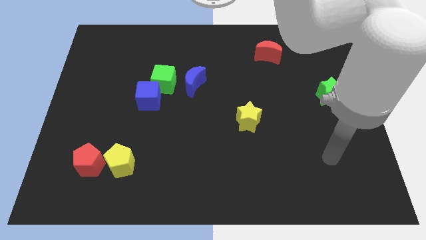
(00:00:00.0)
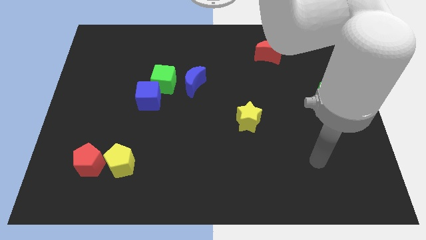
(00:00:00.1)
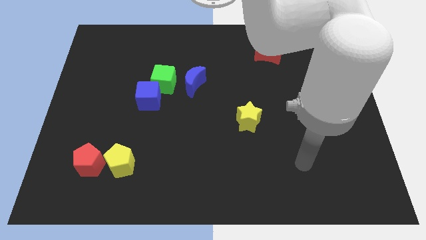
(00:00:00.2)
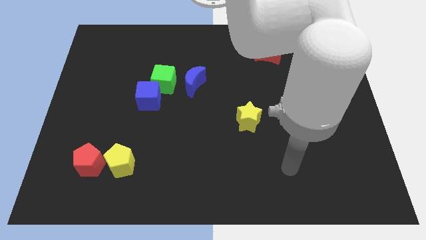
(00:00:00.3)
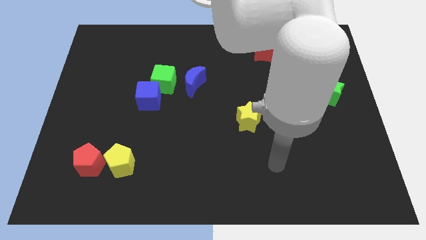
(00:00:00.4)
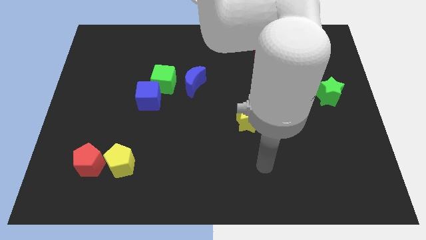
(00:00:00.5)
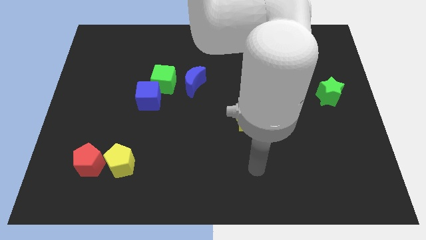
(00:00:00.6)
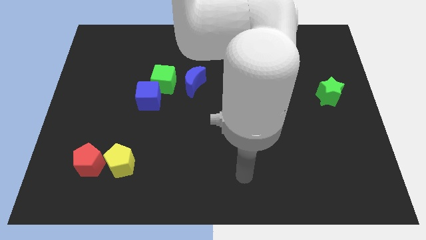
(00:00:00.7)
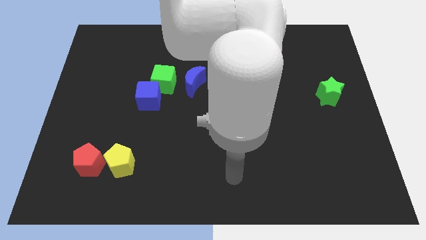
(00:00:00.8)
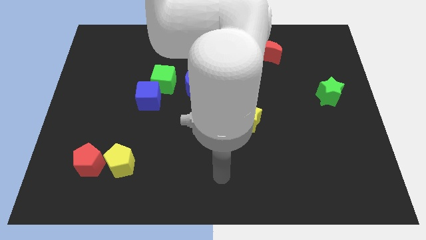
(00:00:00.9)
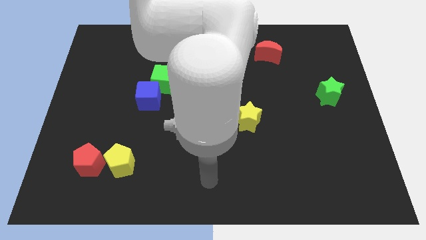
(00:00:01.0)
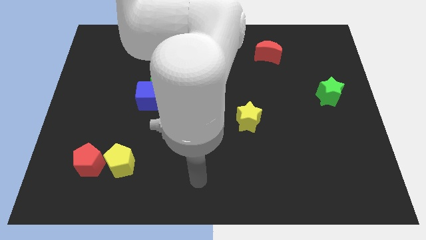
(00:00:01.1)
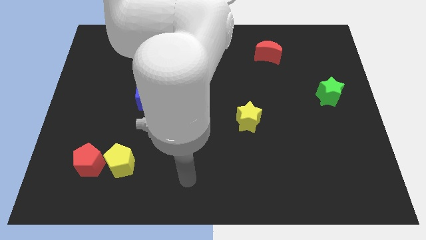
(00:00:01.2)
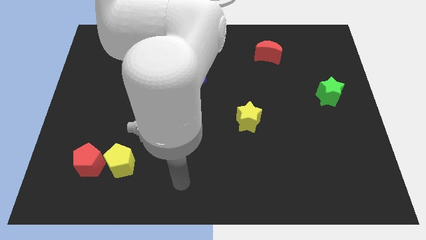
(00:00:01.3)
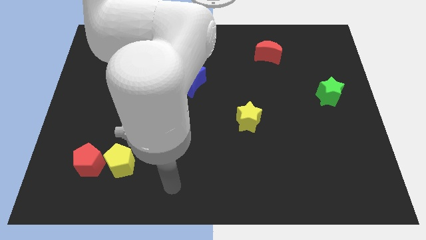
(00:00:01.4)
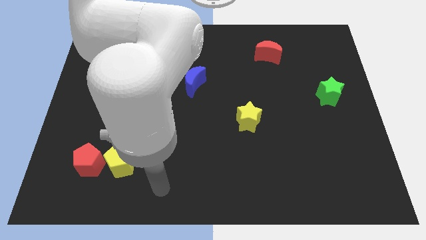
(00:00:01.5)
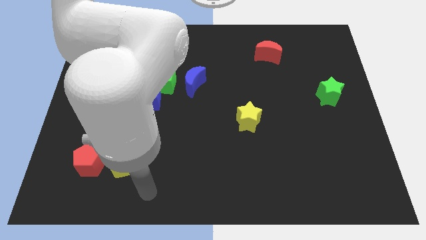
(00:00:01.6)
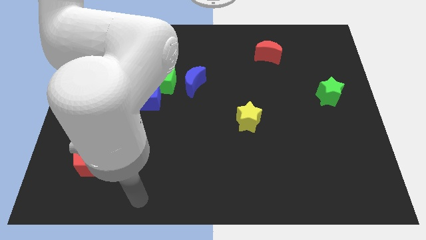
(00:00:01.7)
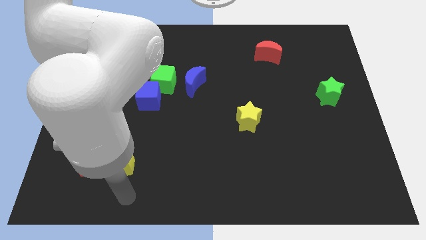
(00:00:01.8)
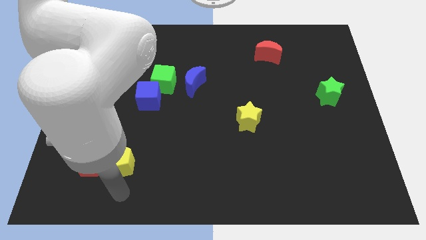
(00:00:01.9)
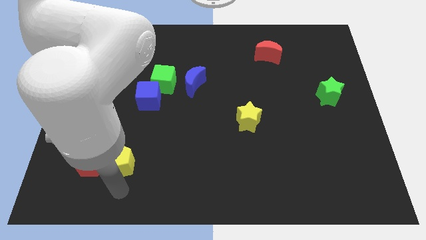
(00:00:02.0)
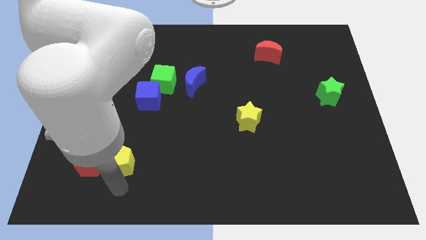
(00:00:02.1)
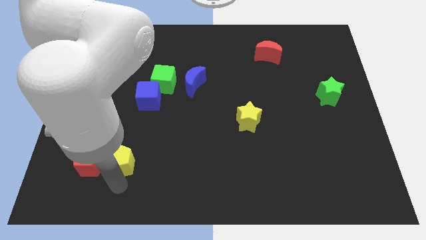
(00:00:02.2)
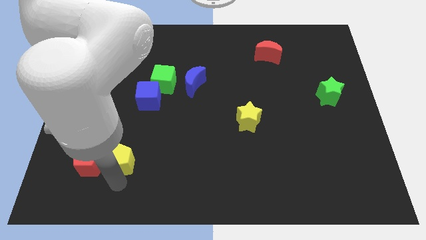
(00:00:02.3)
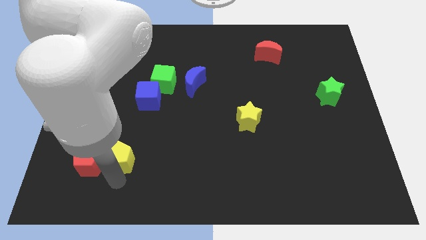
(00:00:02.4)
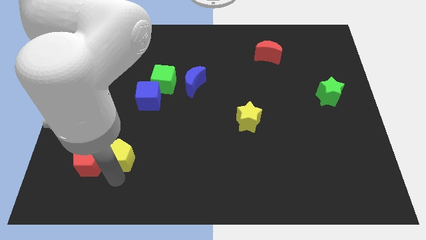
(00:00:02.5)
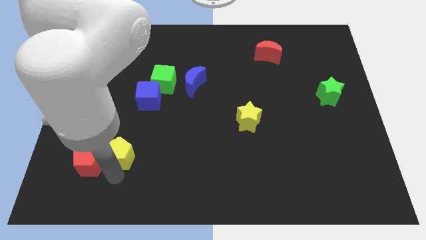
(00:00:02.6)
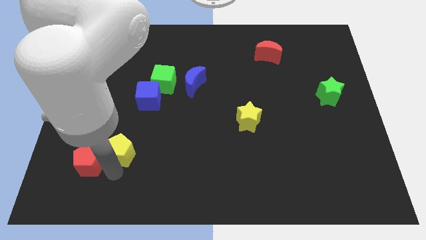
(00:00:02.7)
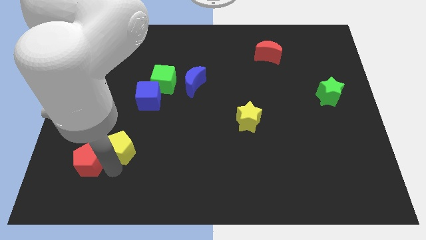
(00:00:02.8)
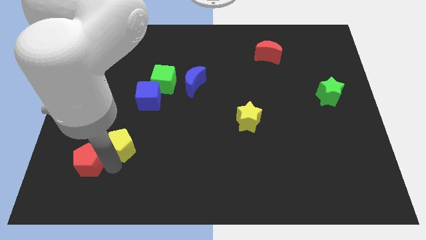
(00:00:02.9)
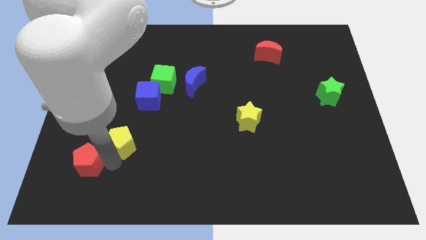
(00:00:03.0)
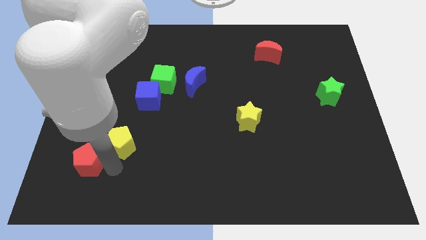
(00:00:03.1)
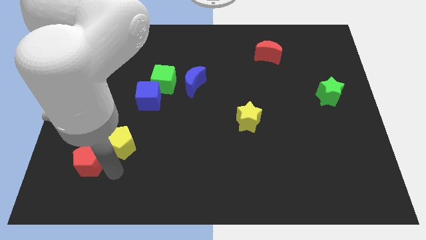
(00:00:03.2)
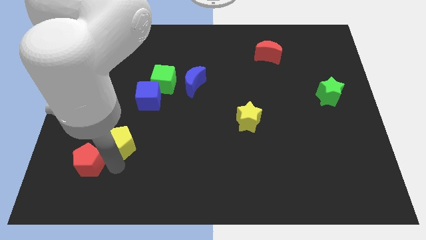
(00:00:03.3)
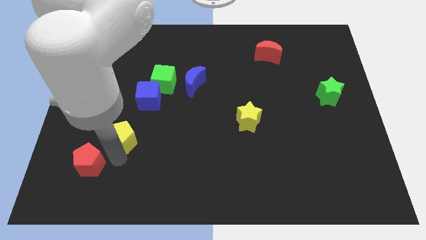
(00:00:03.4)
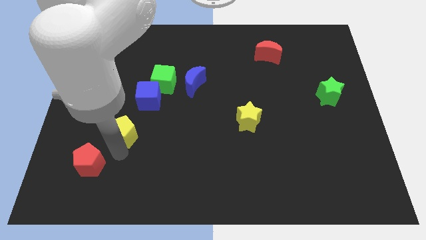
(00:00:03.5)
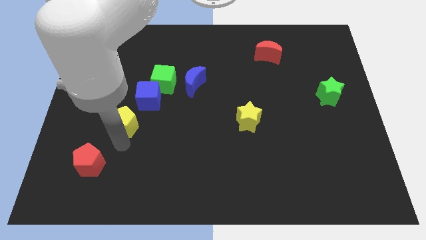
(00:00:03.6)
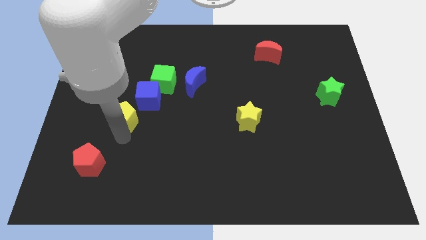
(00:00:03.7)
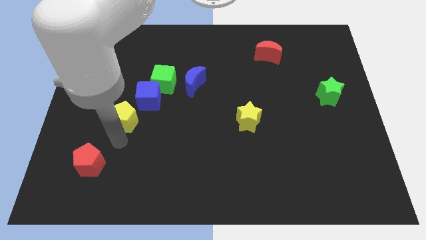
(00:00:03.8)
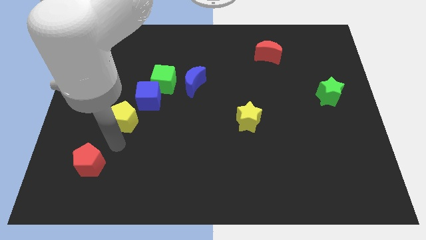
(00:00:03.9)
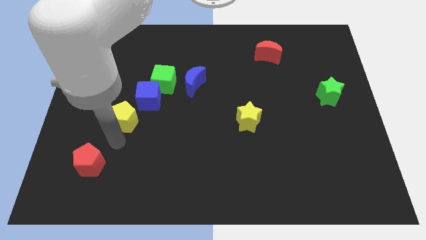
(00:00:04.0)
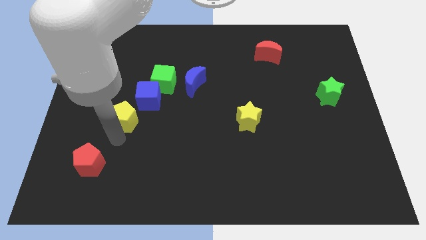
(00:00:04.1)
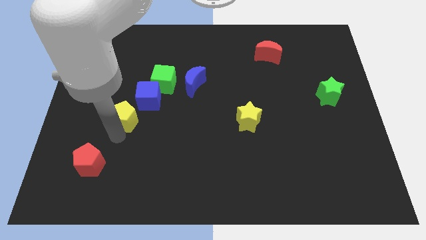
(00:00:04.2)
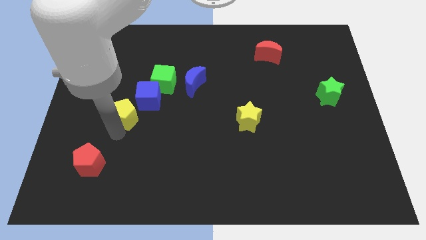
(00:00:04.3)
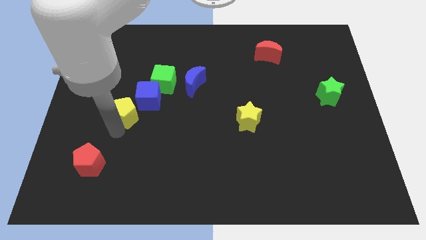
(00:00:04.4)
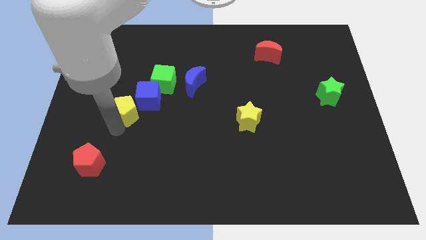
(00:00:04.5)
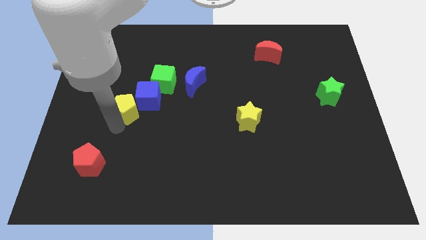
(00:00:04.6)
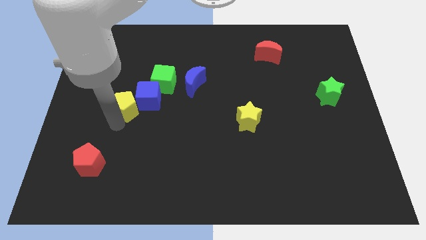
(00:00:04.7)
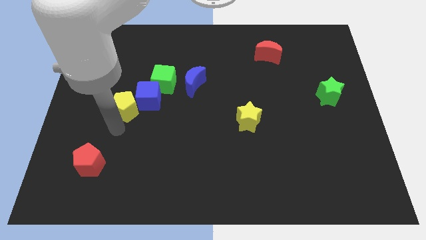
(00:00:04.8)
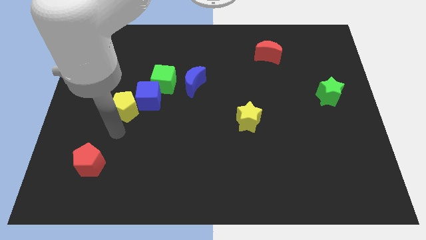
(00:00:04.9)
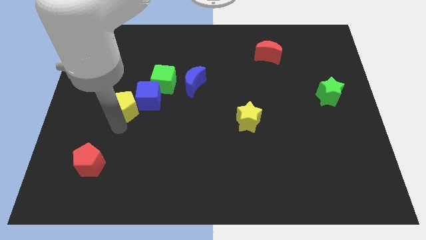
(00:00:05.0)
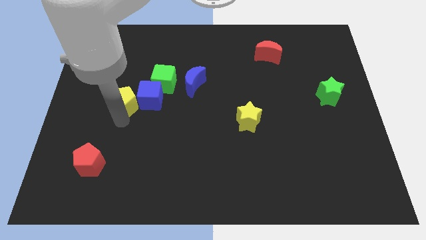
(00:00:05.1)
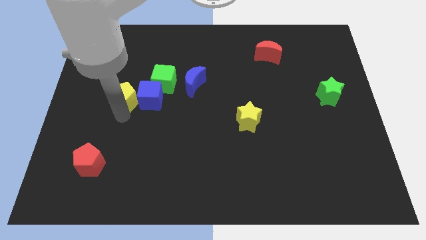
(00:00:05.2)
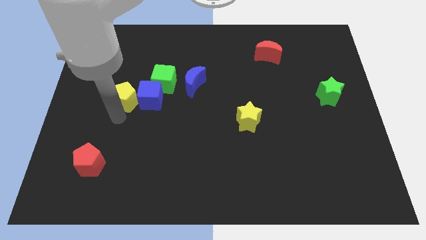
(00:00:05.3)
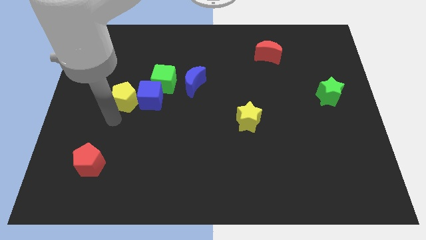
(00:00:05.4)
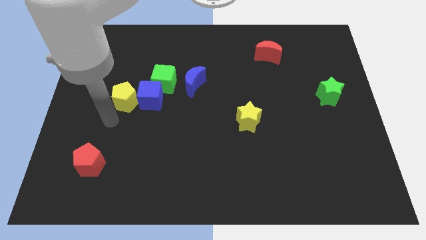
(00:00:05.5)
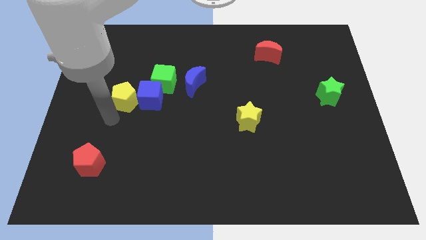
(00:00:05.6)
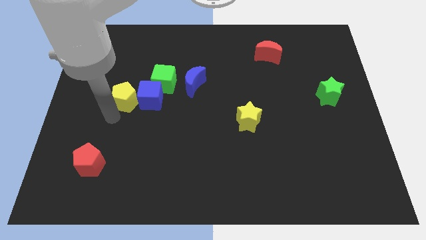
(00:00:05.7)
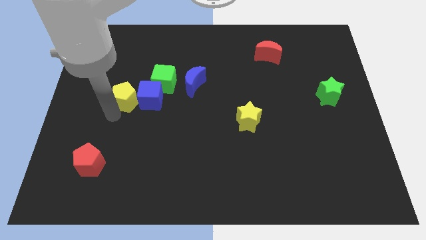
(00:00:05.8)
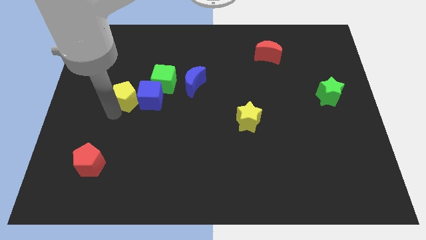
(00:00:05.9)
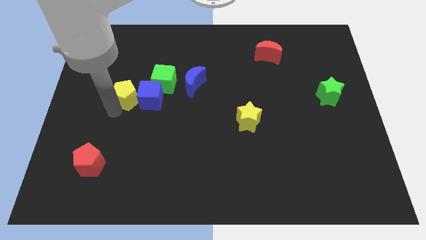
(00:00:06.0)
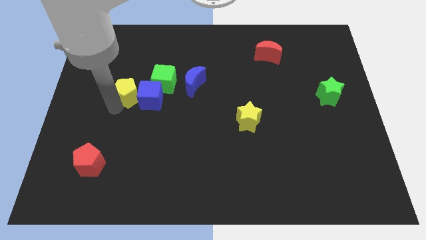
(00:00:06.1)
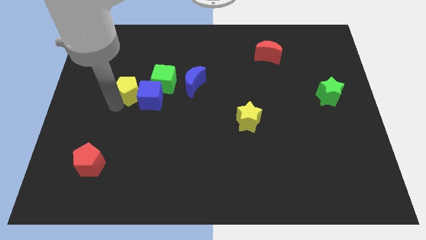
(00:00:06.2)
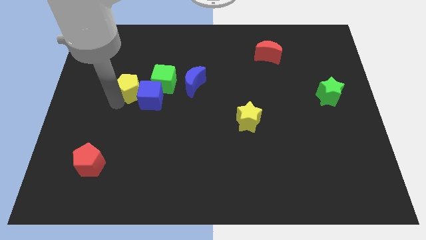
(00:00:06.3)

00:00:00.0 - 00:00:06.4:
push the yellow pentagon up

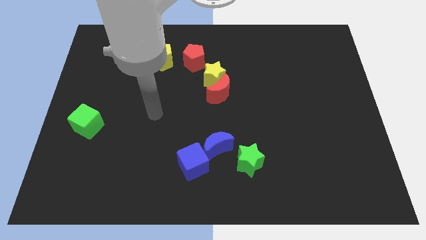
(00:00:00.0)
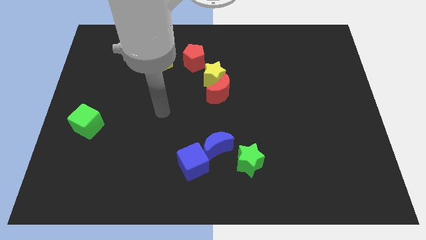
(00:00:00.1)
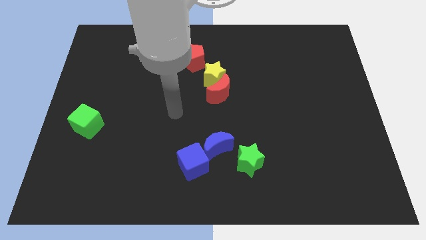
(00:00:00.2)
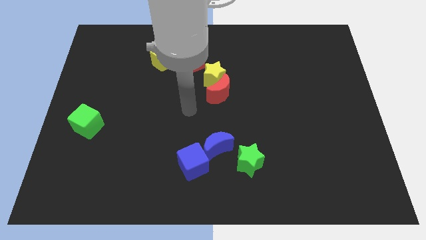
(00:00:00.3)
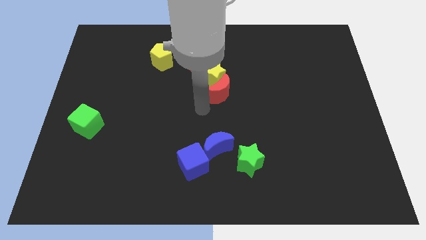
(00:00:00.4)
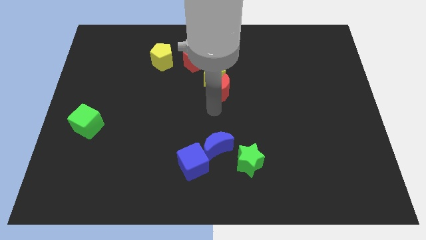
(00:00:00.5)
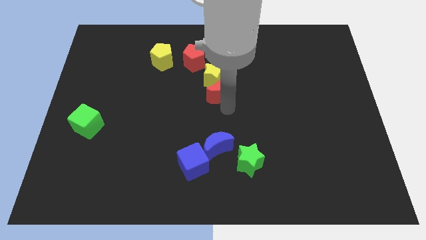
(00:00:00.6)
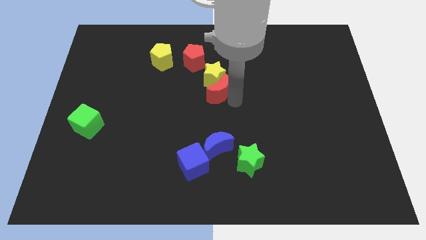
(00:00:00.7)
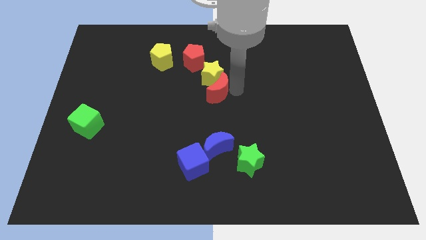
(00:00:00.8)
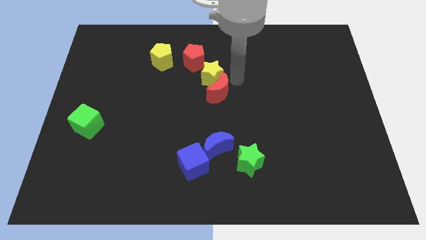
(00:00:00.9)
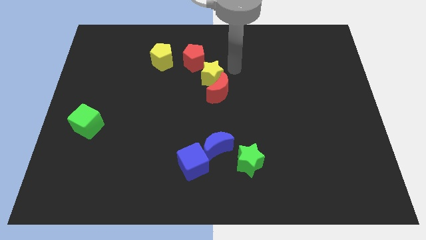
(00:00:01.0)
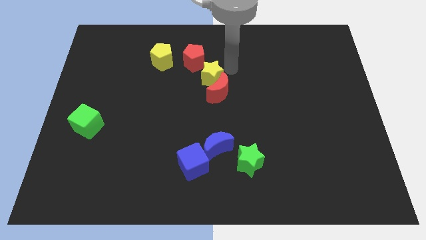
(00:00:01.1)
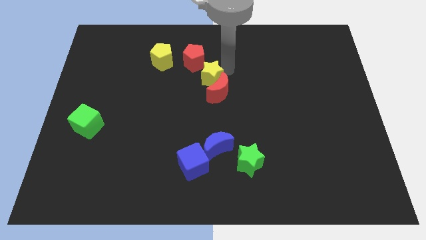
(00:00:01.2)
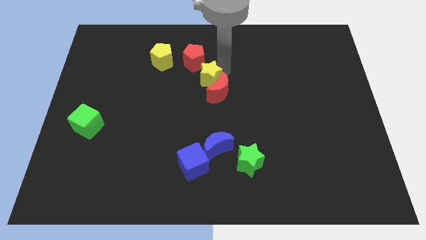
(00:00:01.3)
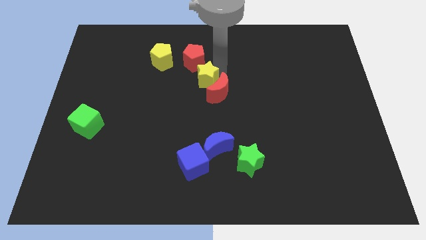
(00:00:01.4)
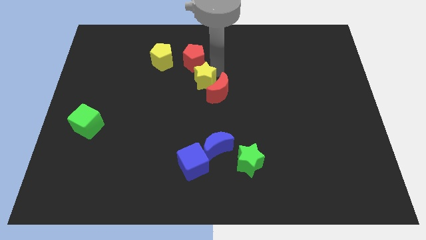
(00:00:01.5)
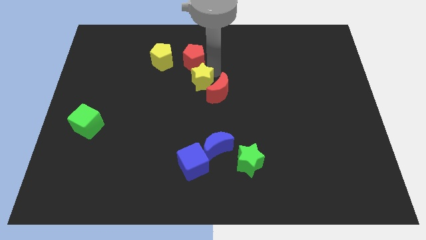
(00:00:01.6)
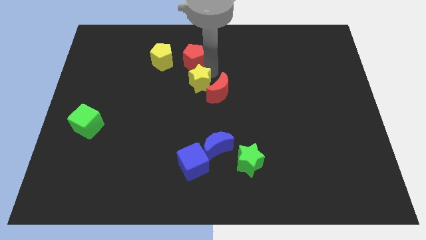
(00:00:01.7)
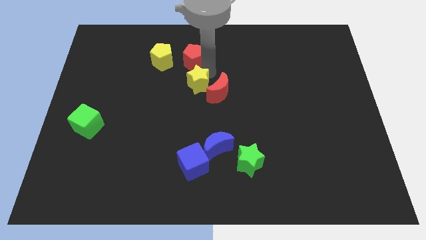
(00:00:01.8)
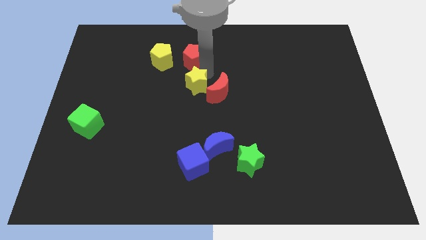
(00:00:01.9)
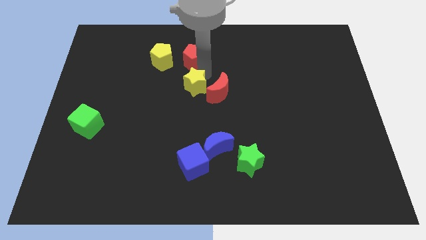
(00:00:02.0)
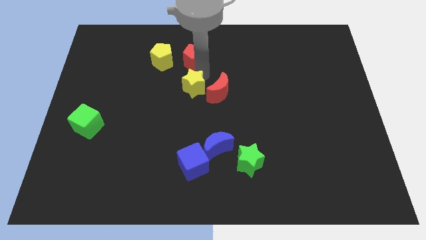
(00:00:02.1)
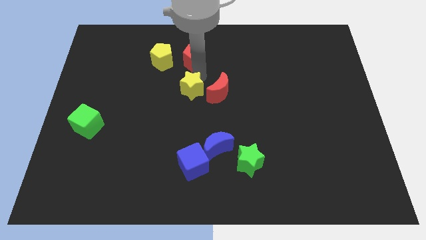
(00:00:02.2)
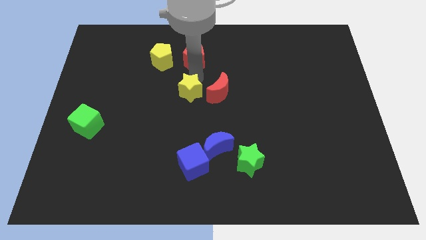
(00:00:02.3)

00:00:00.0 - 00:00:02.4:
move the yellow star a little bit down and then to the left
